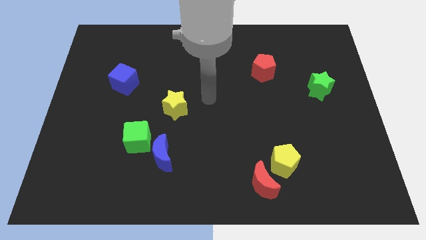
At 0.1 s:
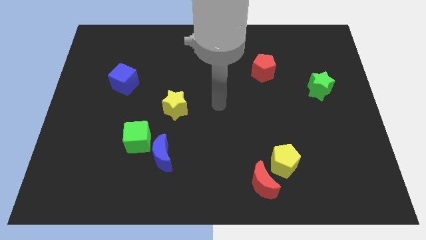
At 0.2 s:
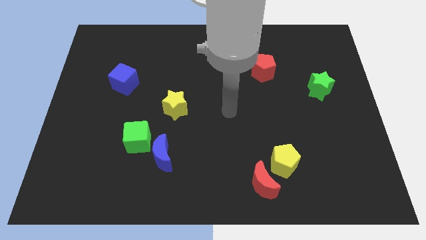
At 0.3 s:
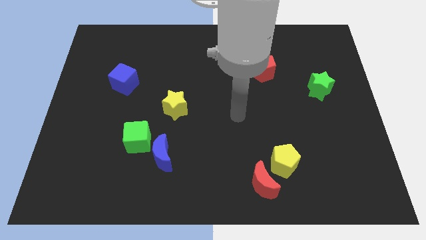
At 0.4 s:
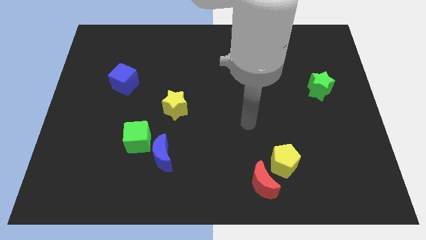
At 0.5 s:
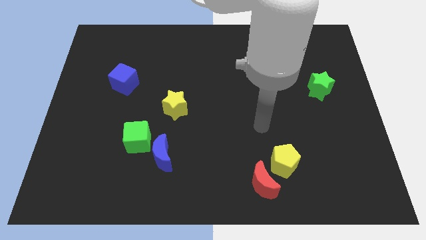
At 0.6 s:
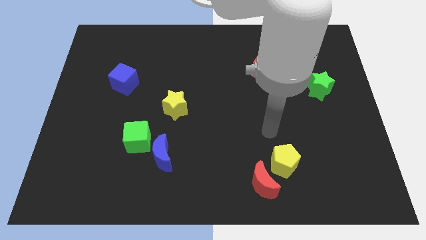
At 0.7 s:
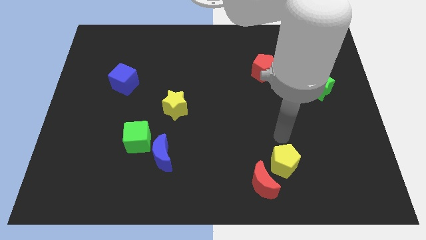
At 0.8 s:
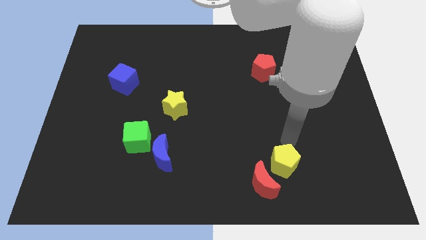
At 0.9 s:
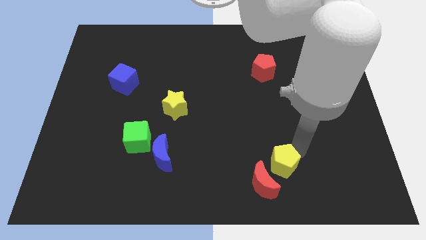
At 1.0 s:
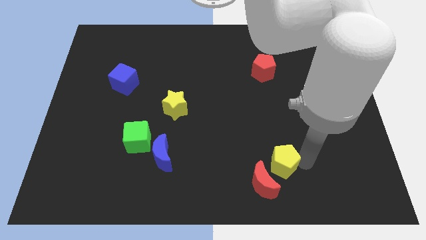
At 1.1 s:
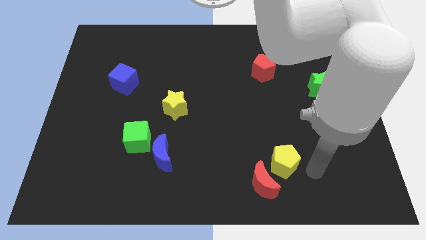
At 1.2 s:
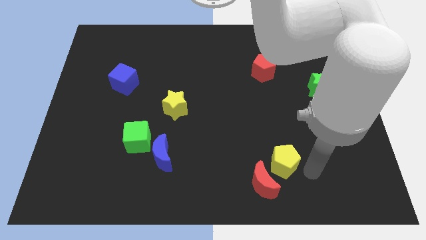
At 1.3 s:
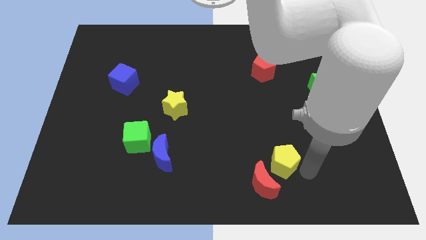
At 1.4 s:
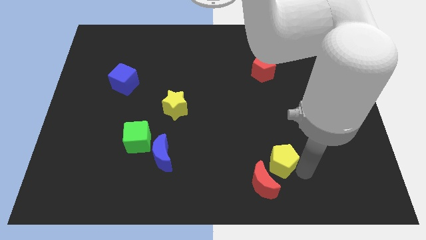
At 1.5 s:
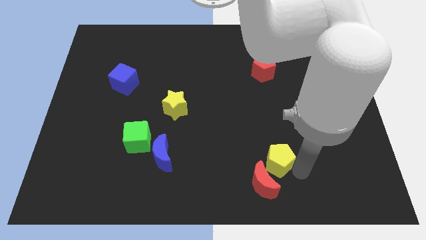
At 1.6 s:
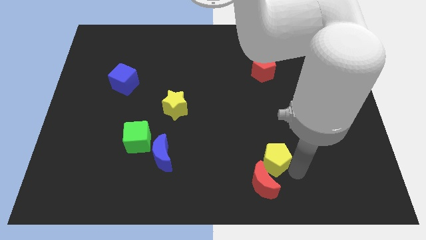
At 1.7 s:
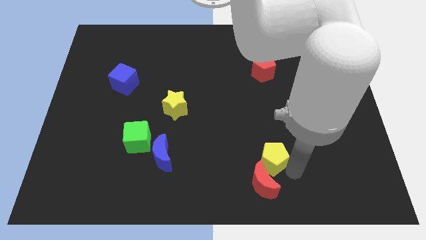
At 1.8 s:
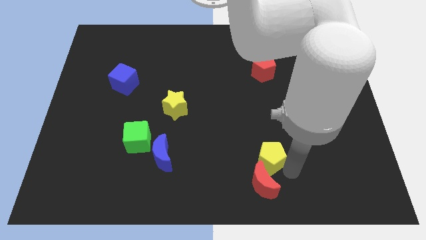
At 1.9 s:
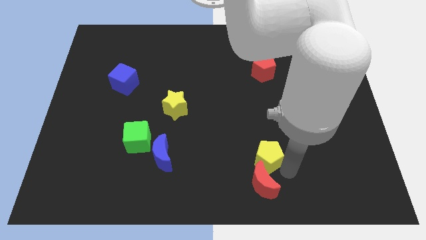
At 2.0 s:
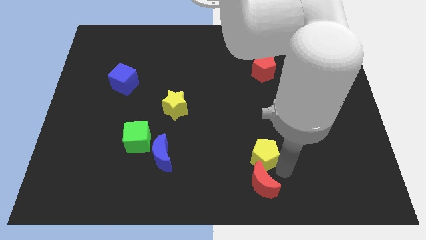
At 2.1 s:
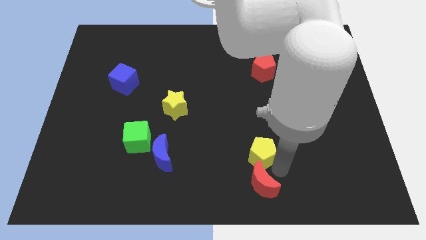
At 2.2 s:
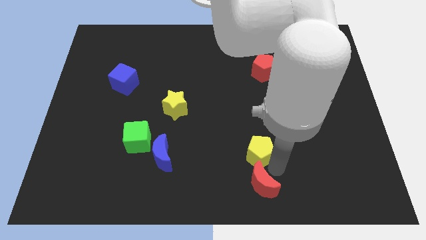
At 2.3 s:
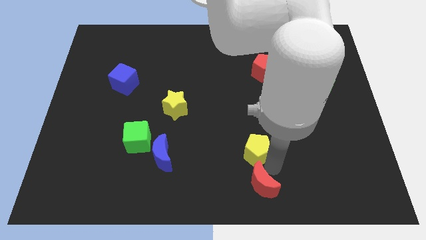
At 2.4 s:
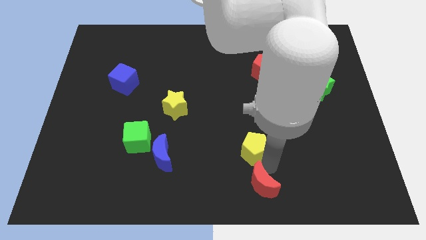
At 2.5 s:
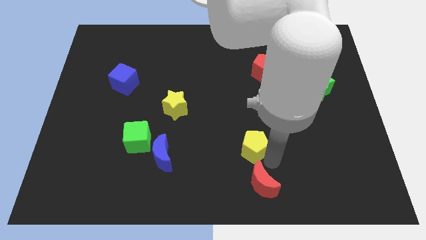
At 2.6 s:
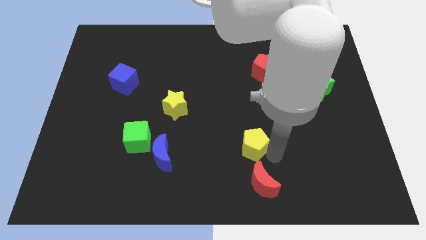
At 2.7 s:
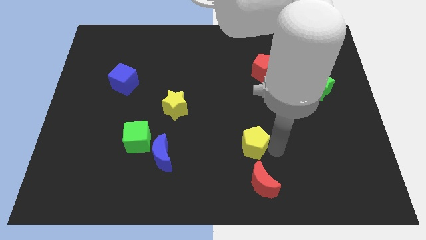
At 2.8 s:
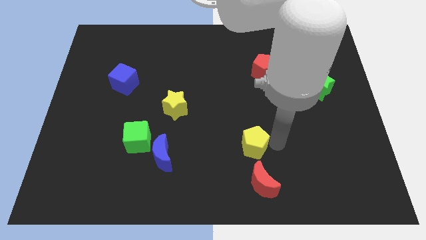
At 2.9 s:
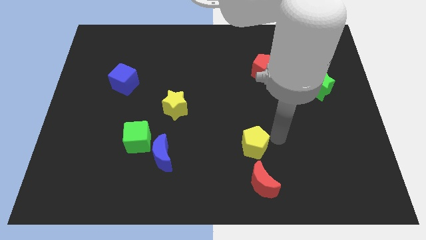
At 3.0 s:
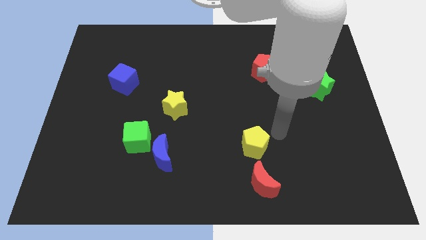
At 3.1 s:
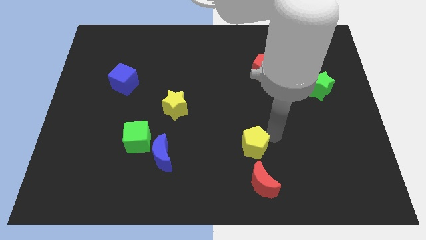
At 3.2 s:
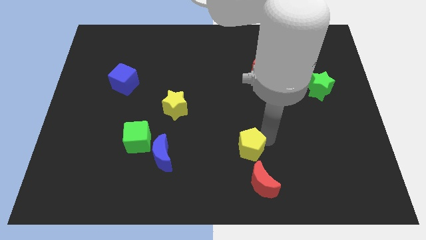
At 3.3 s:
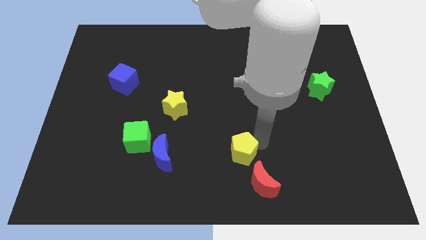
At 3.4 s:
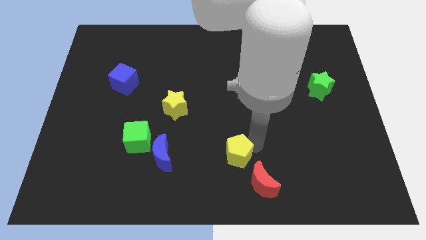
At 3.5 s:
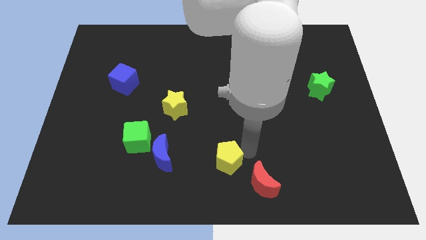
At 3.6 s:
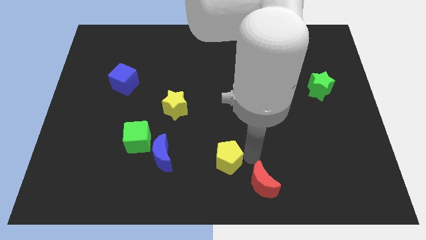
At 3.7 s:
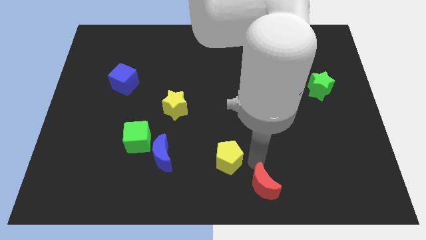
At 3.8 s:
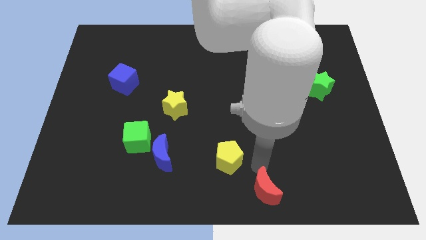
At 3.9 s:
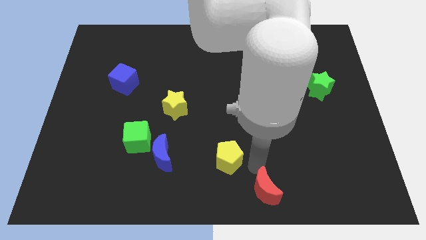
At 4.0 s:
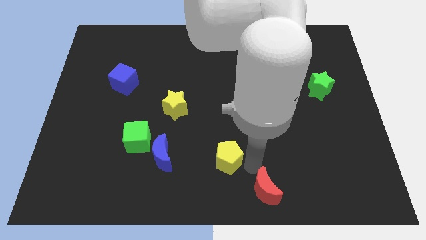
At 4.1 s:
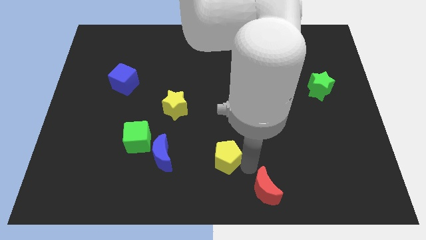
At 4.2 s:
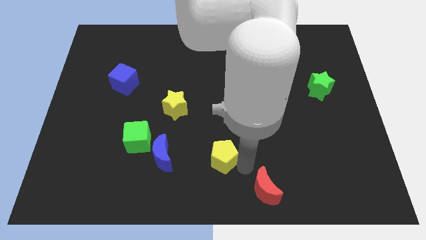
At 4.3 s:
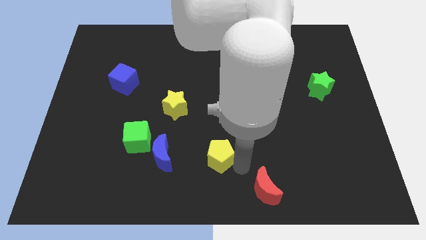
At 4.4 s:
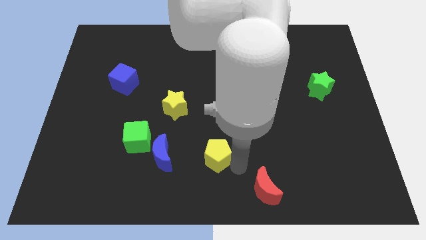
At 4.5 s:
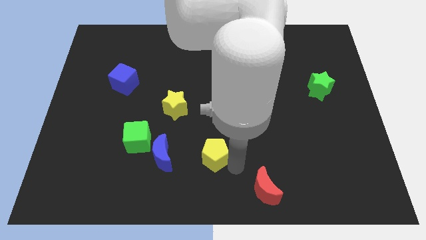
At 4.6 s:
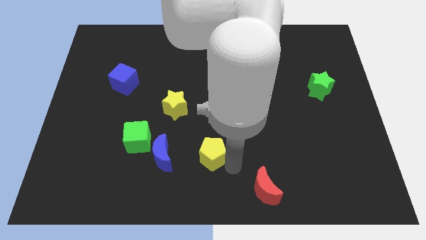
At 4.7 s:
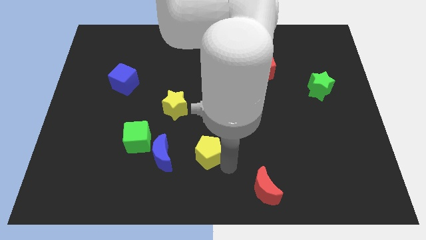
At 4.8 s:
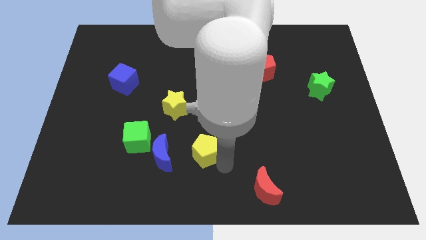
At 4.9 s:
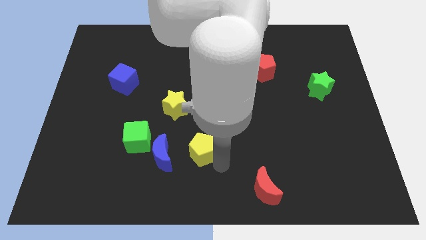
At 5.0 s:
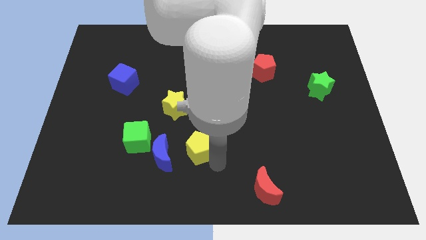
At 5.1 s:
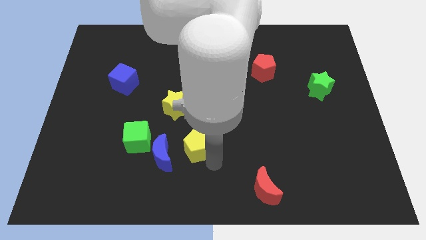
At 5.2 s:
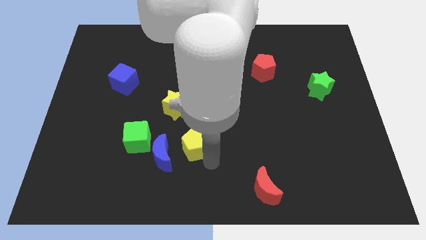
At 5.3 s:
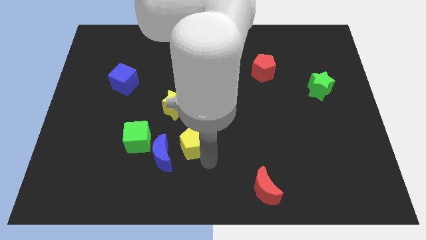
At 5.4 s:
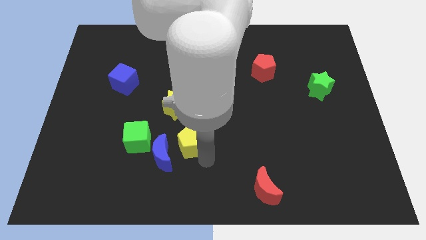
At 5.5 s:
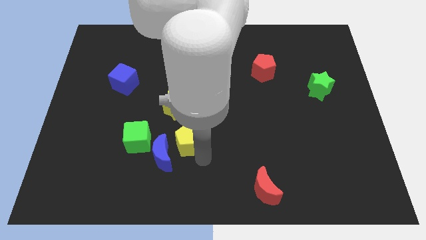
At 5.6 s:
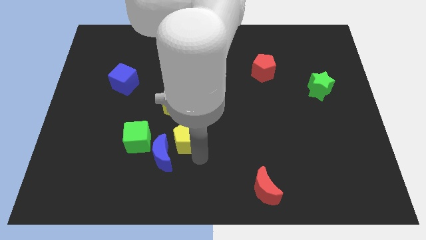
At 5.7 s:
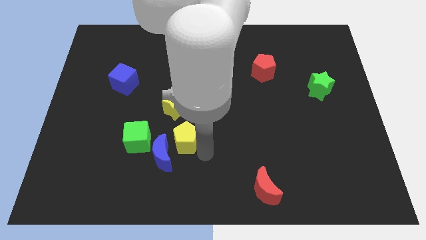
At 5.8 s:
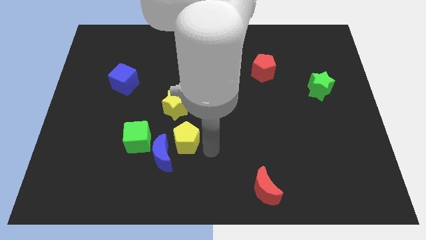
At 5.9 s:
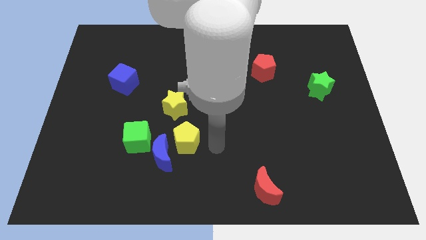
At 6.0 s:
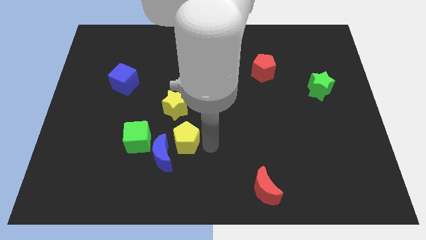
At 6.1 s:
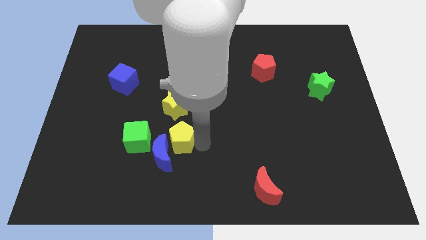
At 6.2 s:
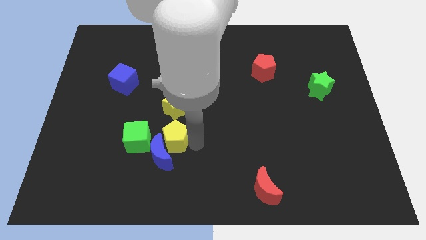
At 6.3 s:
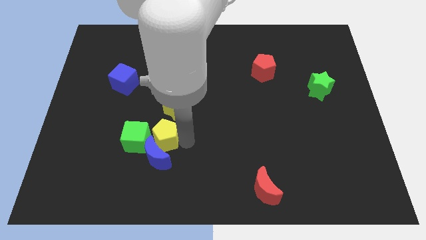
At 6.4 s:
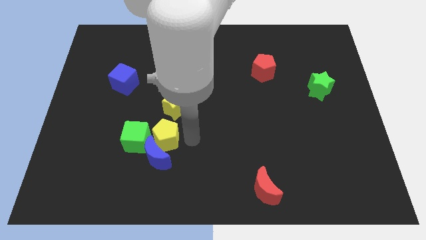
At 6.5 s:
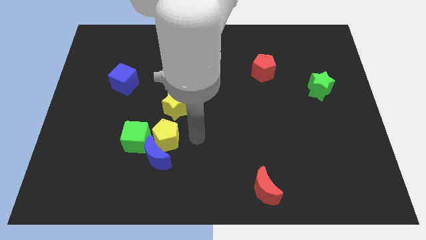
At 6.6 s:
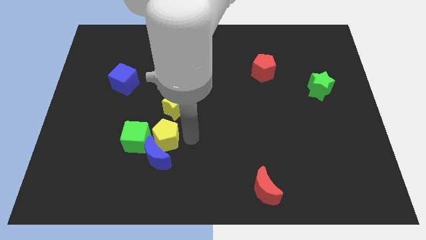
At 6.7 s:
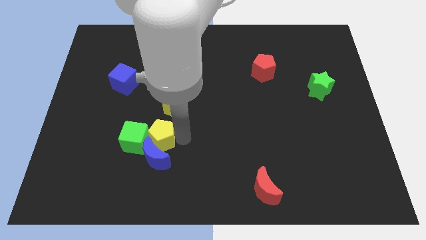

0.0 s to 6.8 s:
put the yellow pentagon towards the green cube

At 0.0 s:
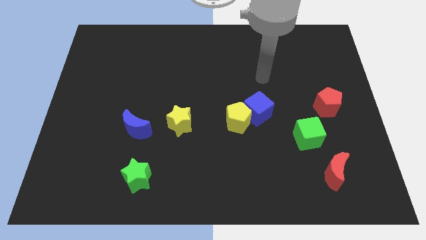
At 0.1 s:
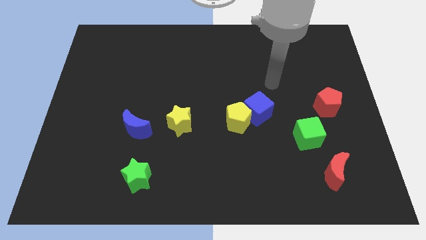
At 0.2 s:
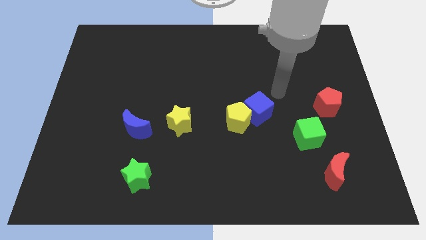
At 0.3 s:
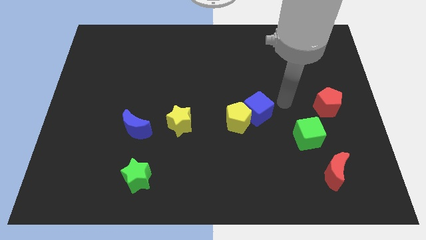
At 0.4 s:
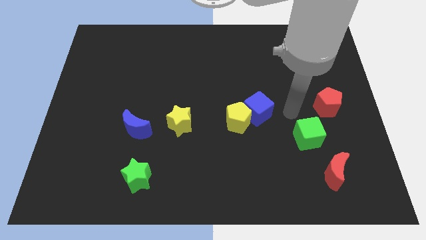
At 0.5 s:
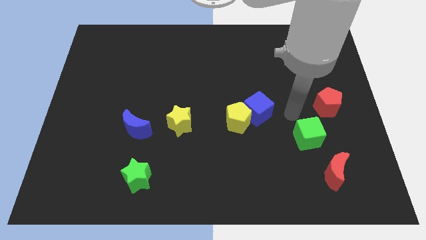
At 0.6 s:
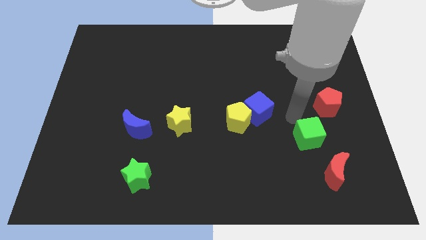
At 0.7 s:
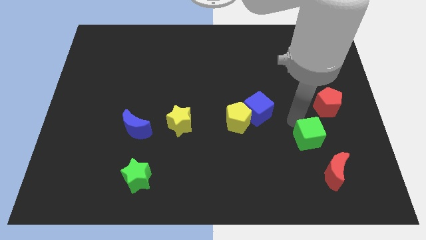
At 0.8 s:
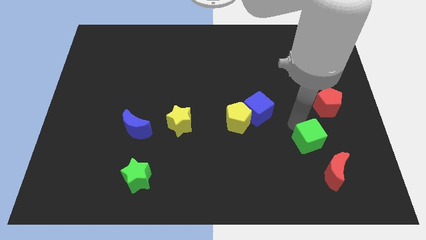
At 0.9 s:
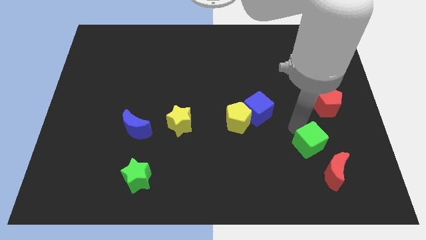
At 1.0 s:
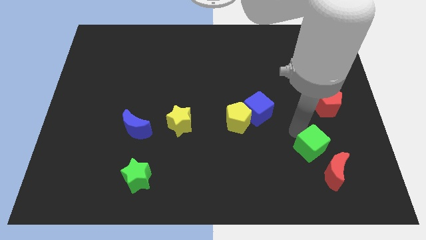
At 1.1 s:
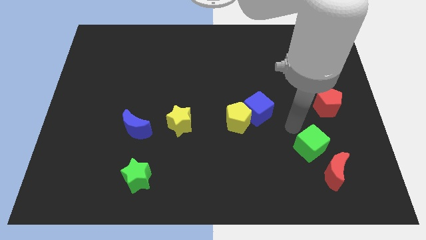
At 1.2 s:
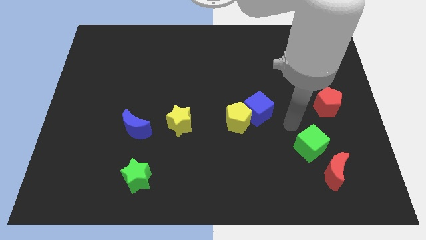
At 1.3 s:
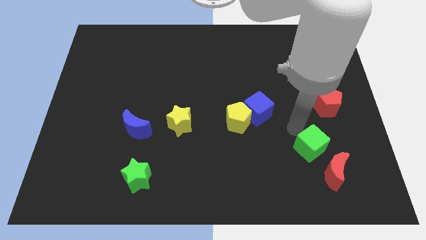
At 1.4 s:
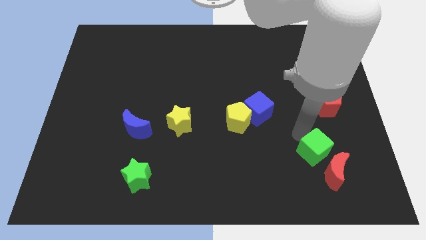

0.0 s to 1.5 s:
move the green cube to the red moon
